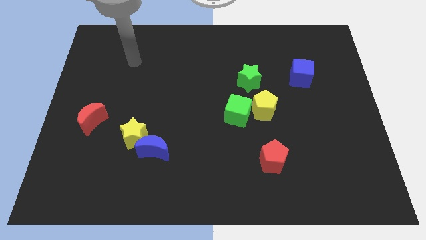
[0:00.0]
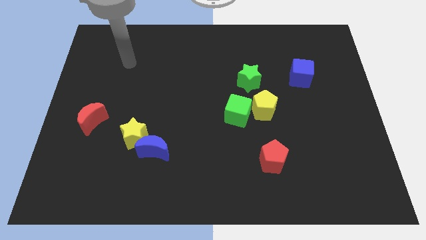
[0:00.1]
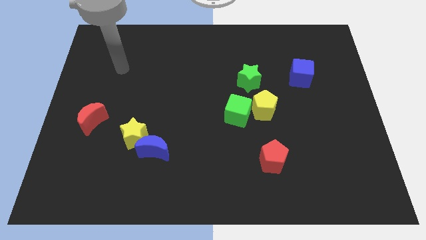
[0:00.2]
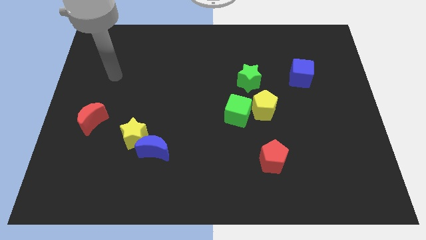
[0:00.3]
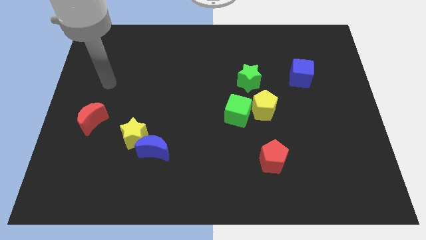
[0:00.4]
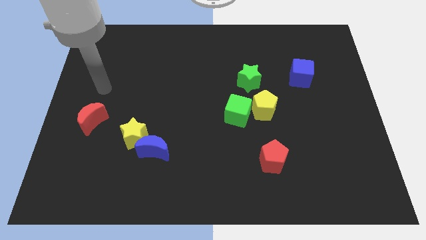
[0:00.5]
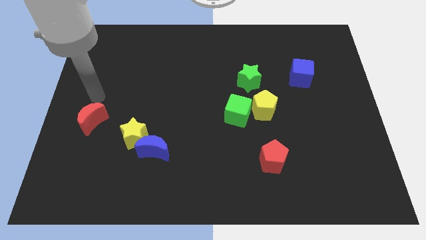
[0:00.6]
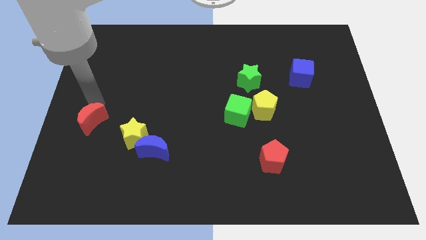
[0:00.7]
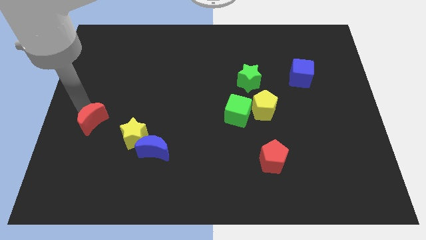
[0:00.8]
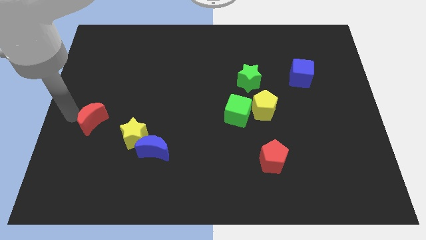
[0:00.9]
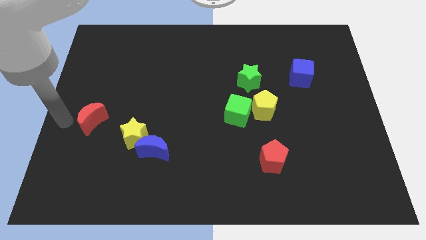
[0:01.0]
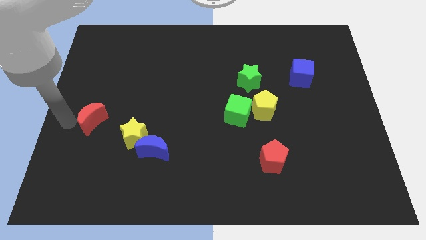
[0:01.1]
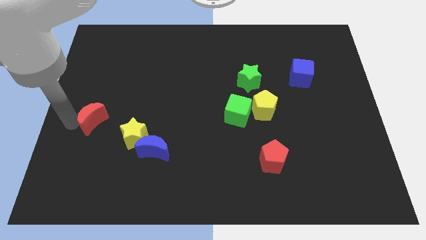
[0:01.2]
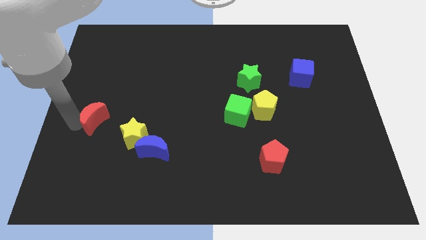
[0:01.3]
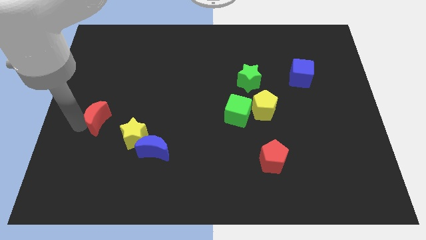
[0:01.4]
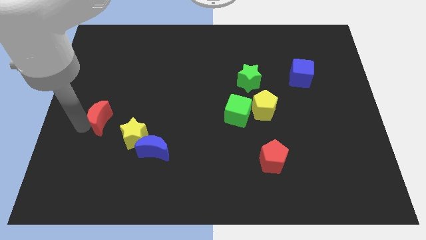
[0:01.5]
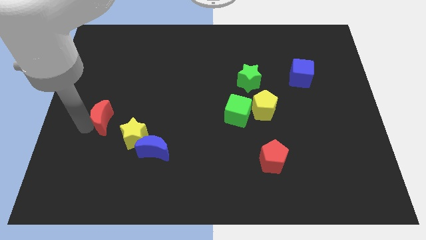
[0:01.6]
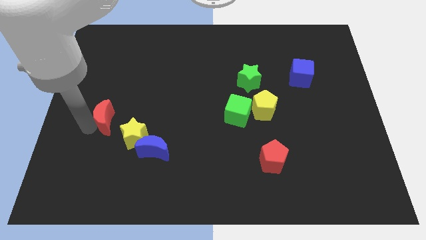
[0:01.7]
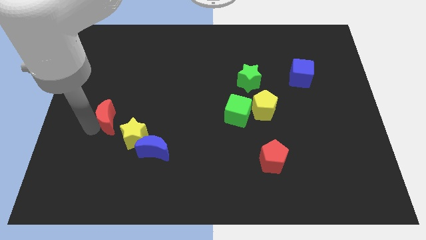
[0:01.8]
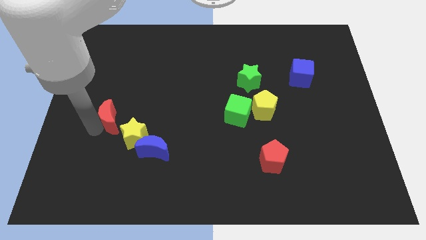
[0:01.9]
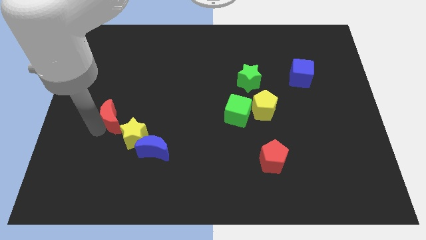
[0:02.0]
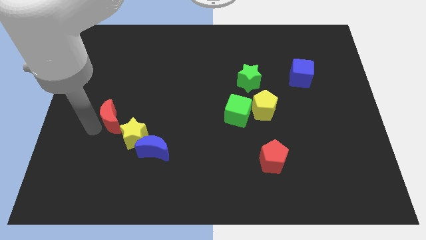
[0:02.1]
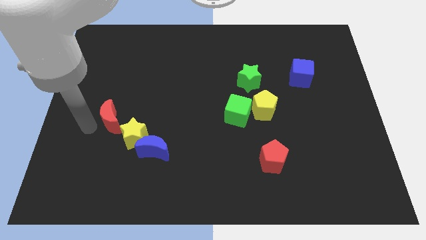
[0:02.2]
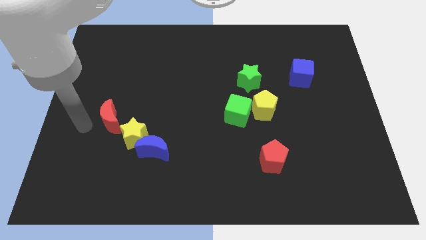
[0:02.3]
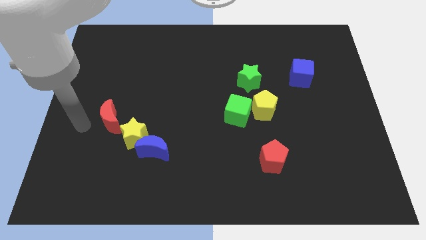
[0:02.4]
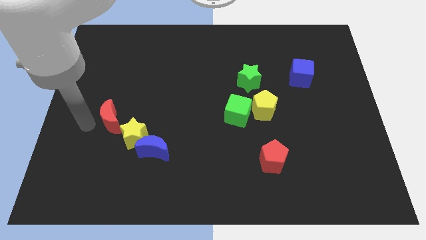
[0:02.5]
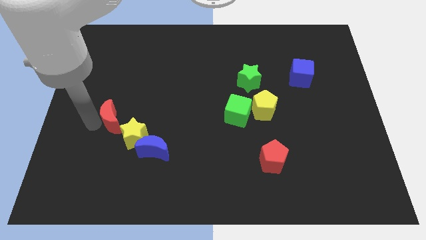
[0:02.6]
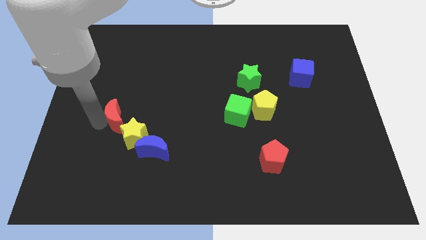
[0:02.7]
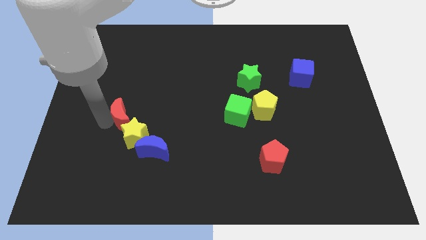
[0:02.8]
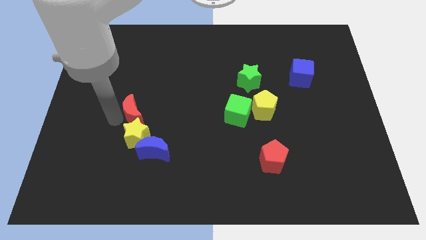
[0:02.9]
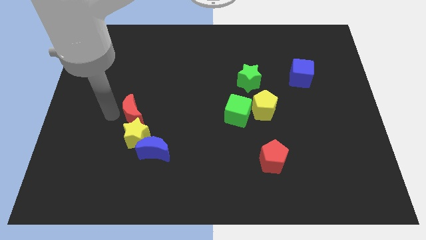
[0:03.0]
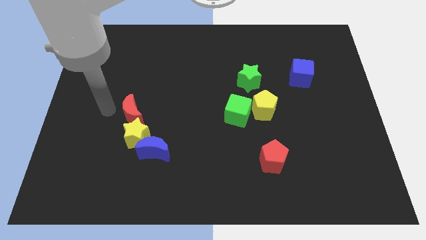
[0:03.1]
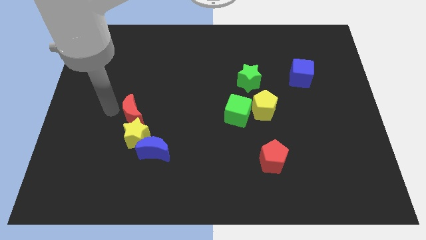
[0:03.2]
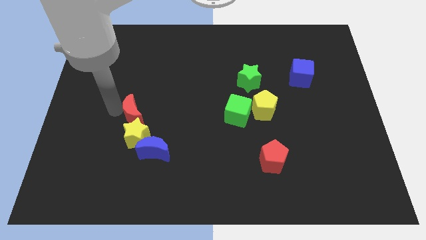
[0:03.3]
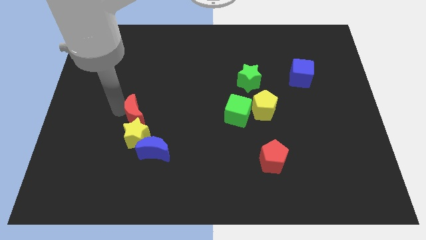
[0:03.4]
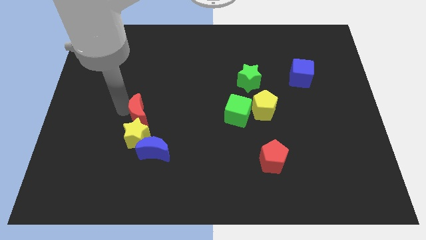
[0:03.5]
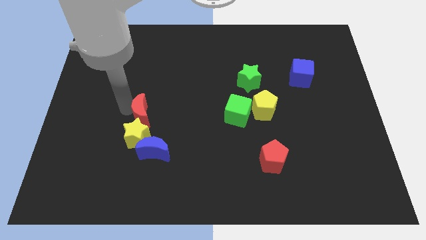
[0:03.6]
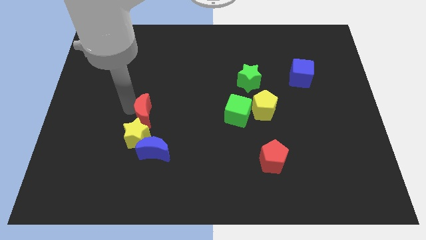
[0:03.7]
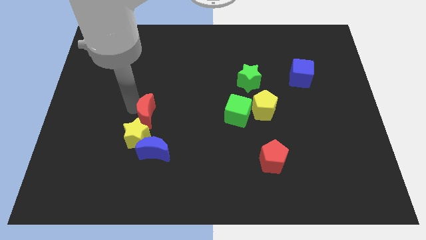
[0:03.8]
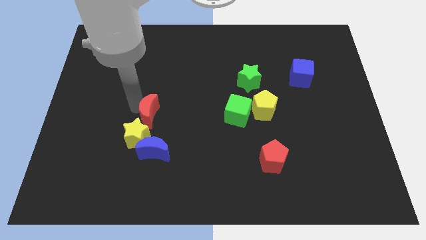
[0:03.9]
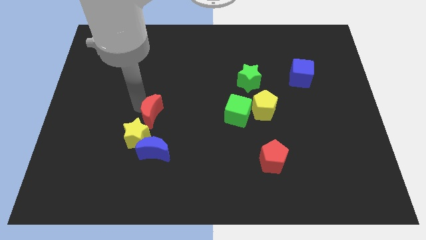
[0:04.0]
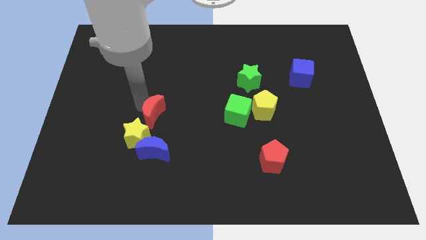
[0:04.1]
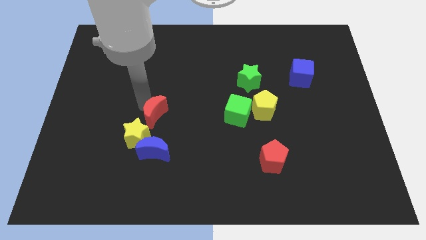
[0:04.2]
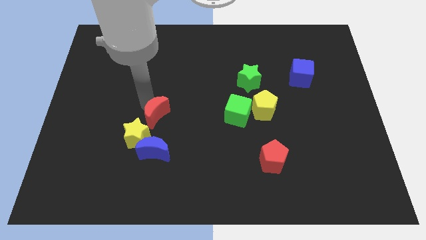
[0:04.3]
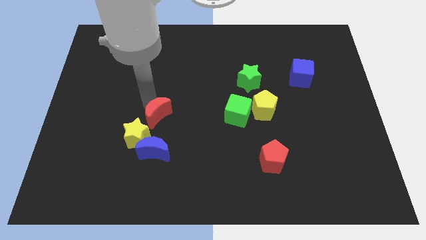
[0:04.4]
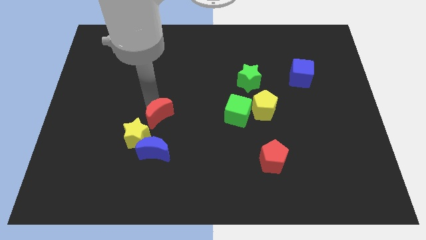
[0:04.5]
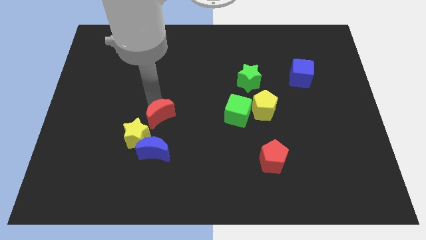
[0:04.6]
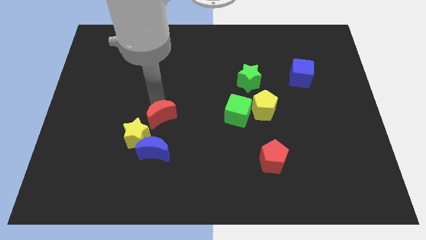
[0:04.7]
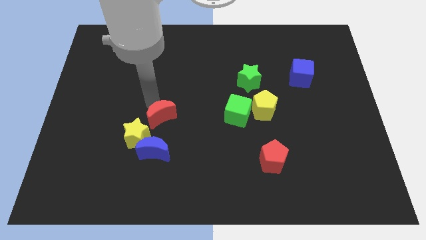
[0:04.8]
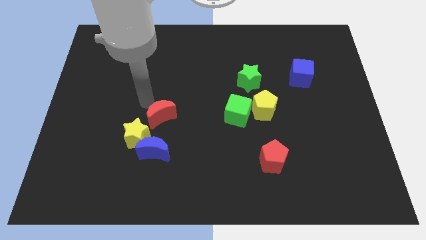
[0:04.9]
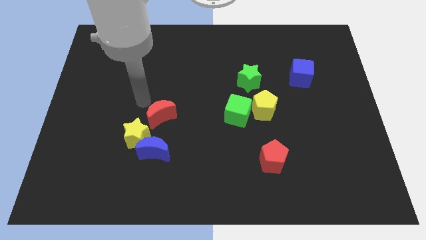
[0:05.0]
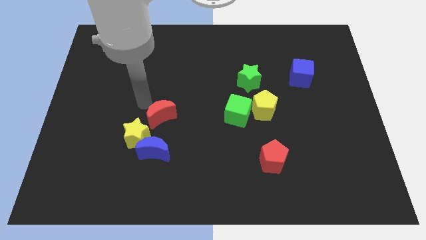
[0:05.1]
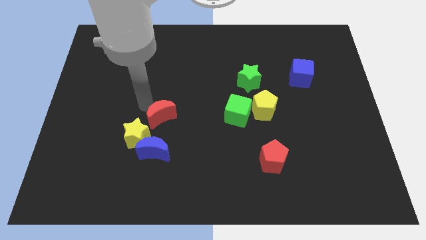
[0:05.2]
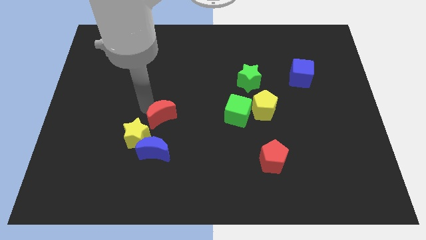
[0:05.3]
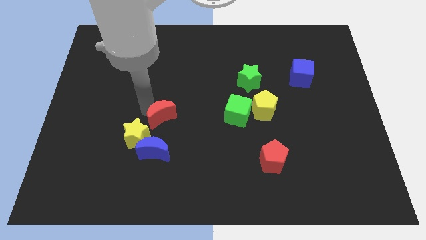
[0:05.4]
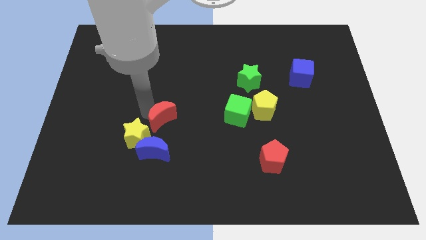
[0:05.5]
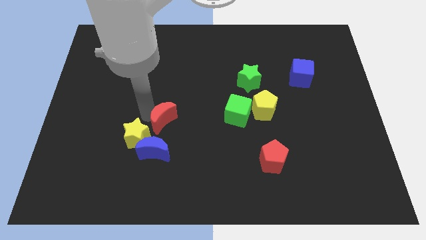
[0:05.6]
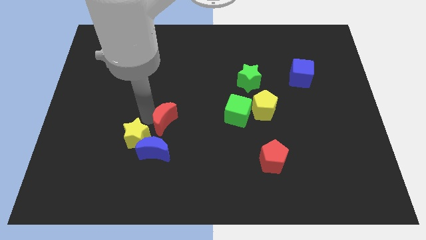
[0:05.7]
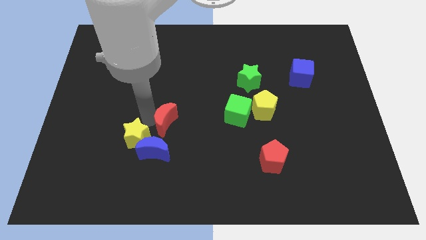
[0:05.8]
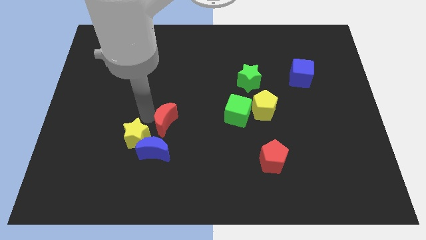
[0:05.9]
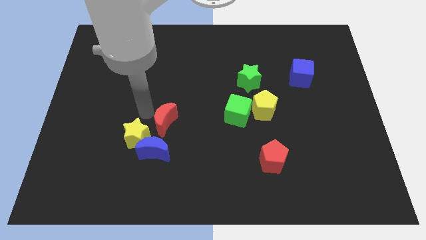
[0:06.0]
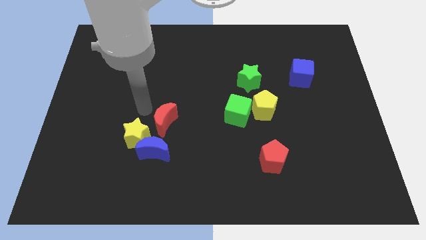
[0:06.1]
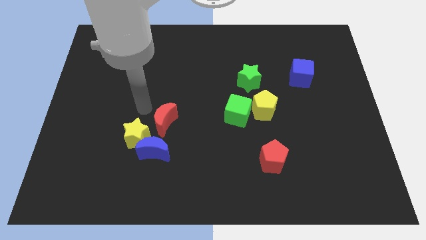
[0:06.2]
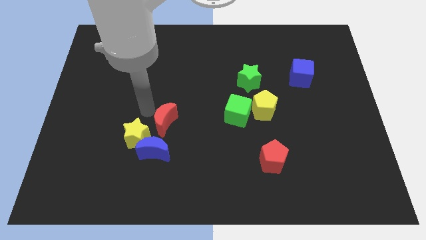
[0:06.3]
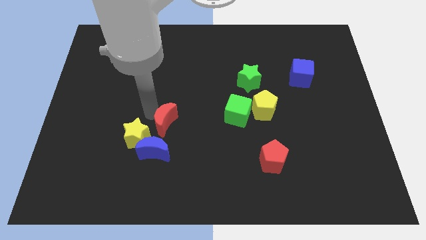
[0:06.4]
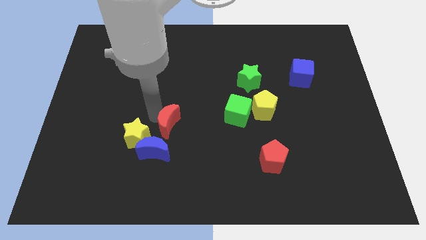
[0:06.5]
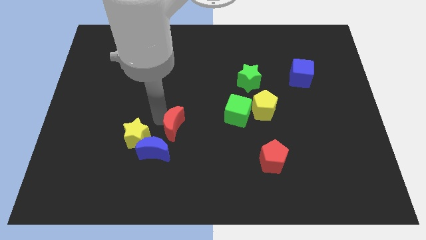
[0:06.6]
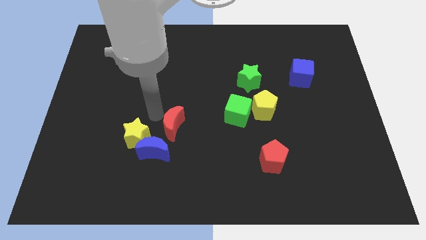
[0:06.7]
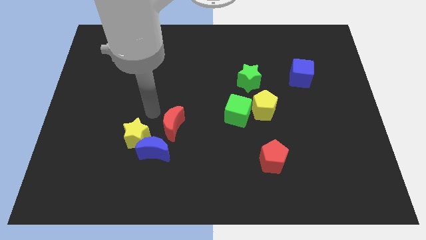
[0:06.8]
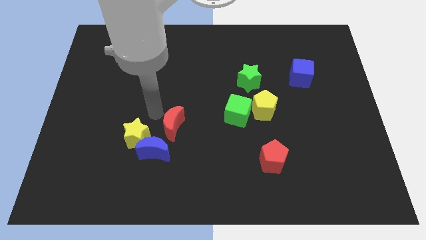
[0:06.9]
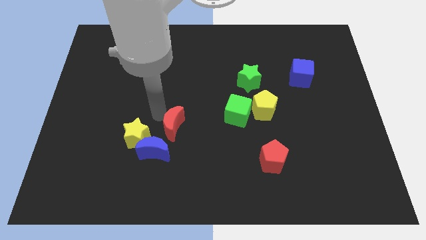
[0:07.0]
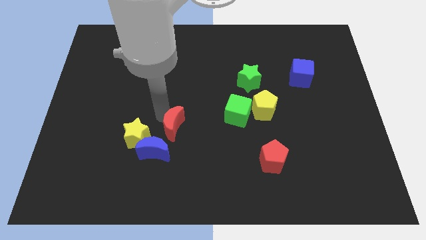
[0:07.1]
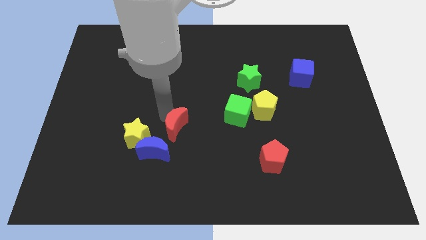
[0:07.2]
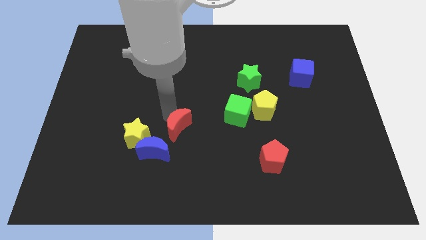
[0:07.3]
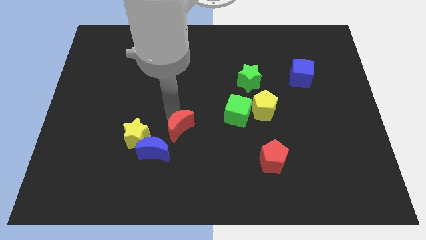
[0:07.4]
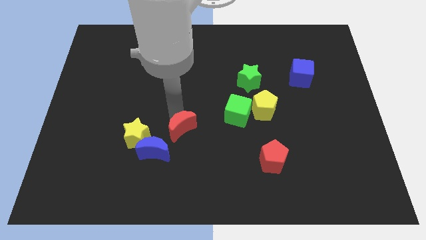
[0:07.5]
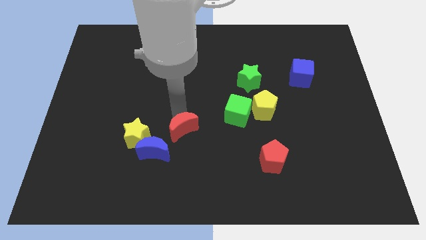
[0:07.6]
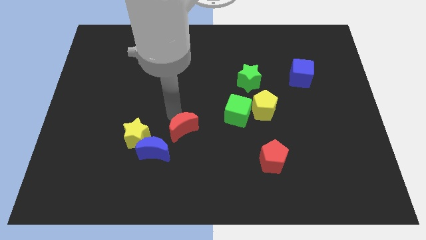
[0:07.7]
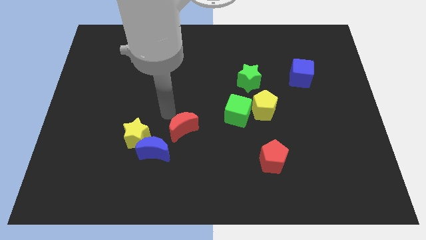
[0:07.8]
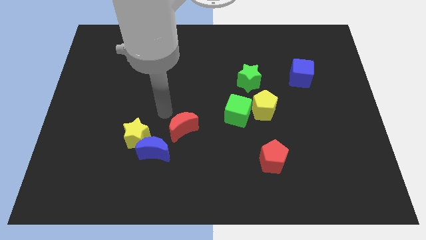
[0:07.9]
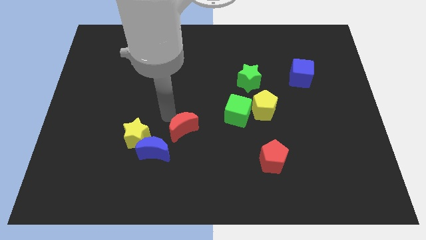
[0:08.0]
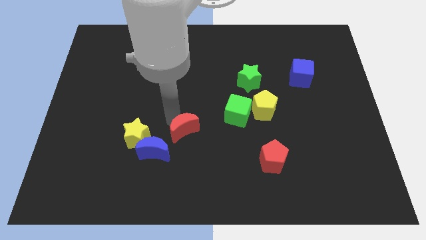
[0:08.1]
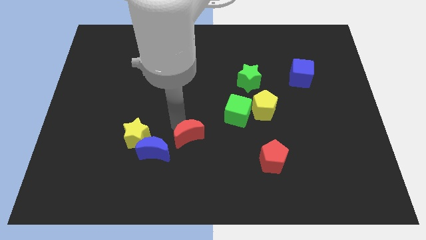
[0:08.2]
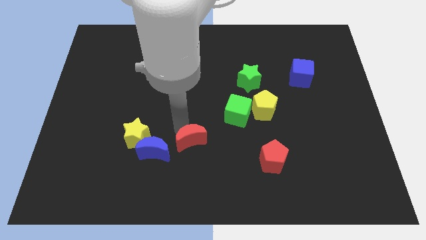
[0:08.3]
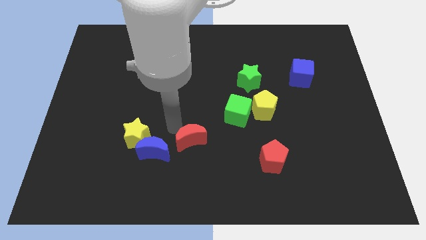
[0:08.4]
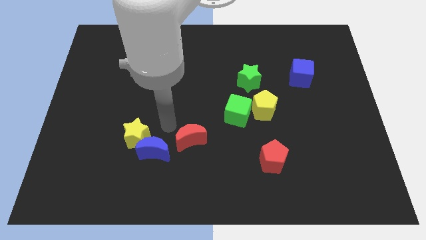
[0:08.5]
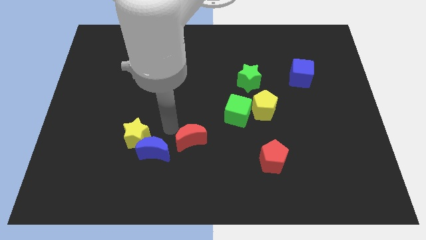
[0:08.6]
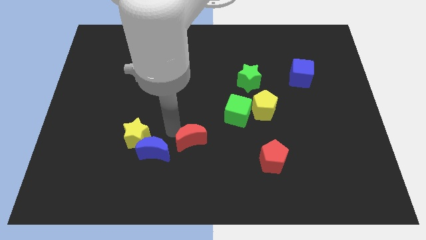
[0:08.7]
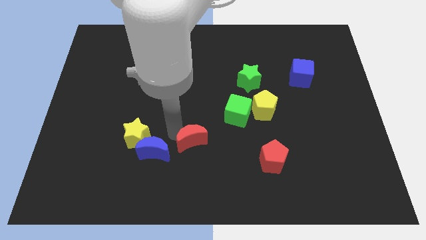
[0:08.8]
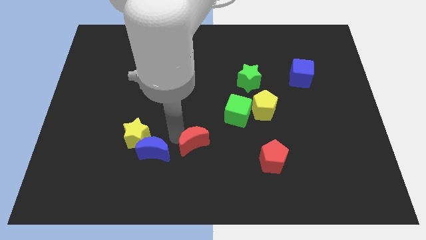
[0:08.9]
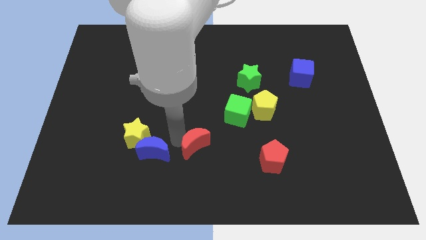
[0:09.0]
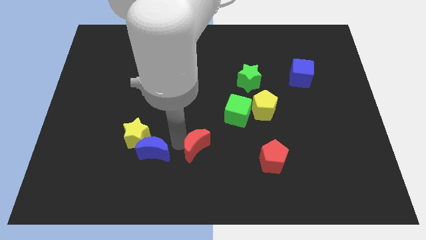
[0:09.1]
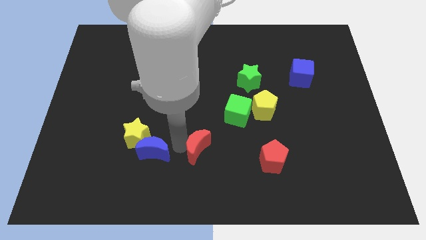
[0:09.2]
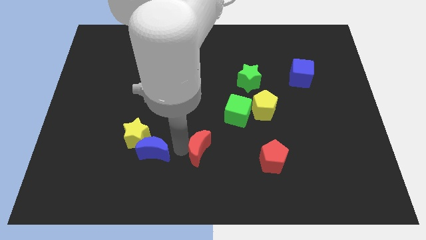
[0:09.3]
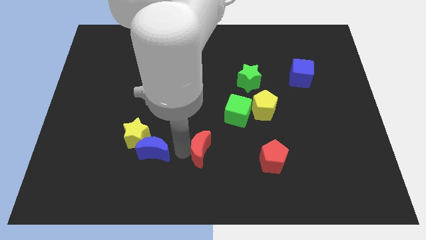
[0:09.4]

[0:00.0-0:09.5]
put the red moon to the left of the red pentagon
